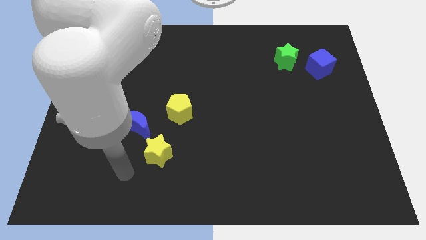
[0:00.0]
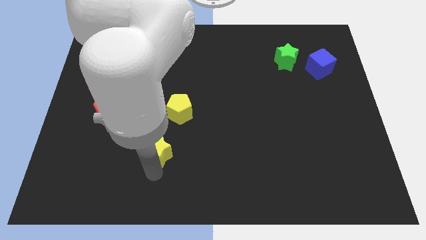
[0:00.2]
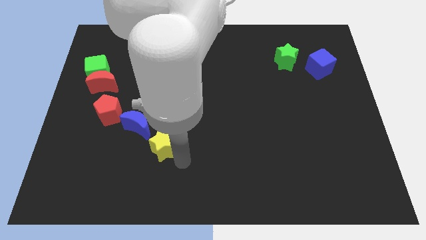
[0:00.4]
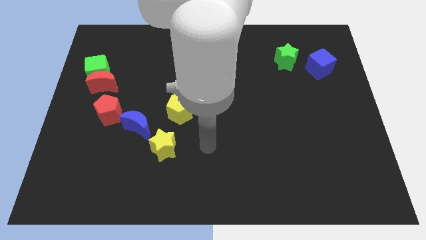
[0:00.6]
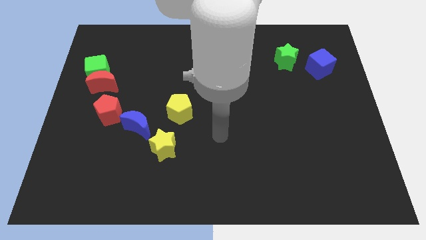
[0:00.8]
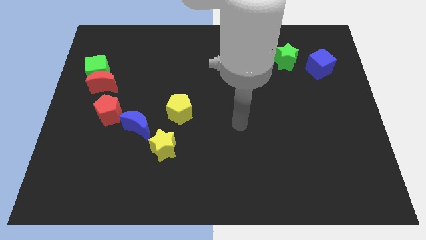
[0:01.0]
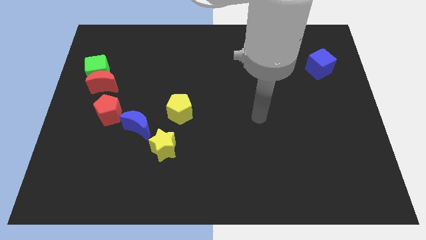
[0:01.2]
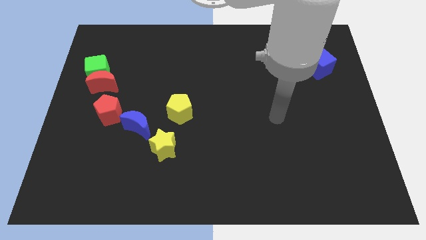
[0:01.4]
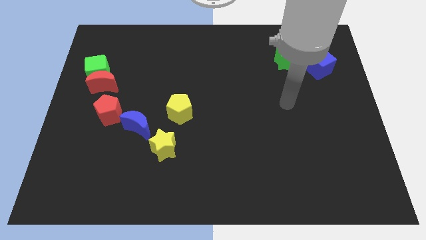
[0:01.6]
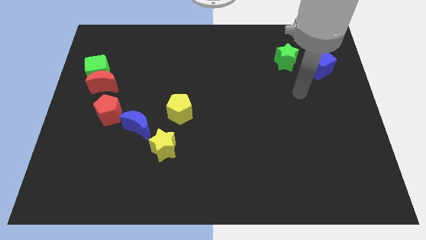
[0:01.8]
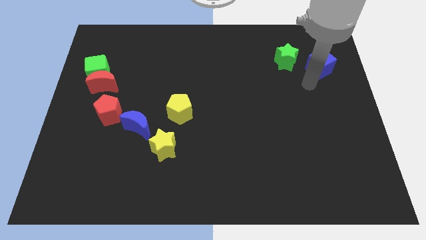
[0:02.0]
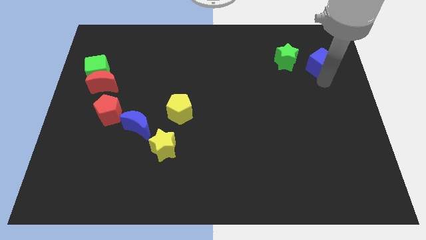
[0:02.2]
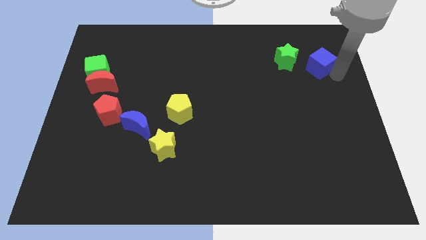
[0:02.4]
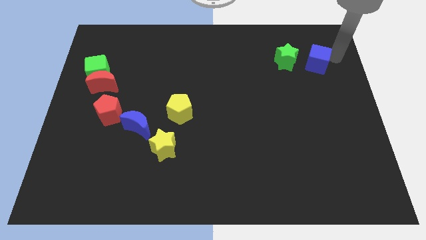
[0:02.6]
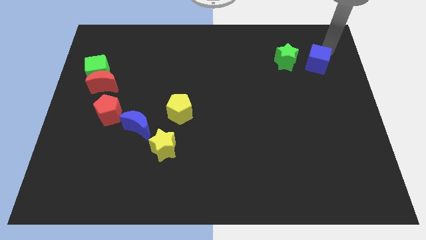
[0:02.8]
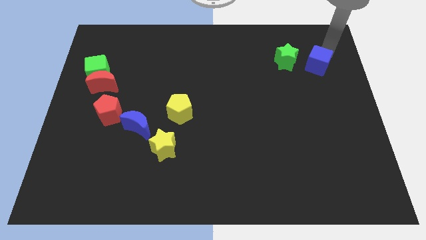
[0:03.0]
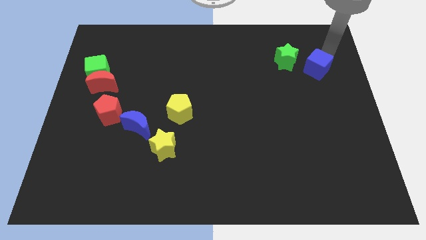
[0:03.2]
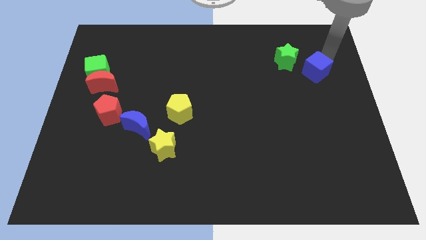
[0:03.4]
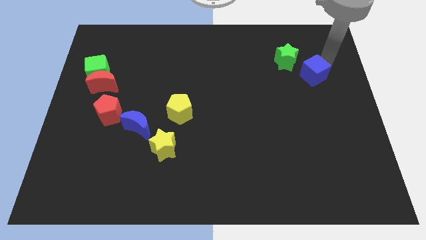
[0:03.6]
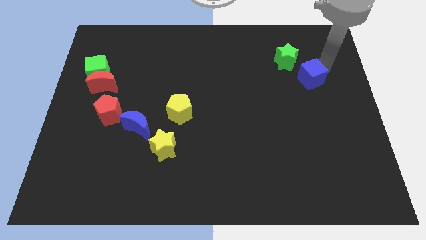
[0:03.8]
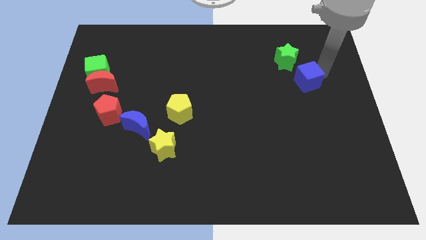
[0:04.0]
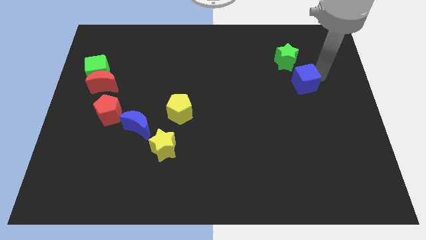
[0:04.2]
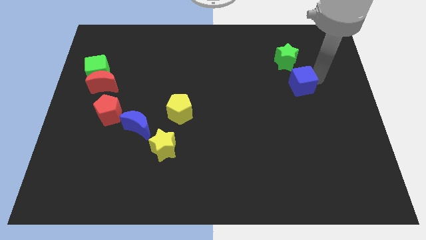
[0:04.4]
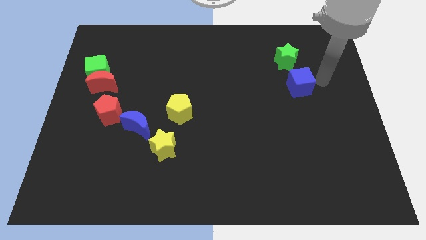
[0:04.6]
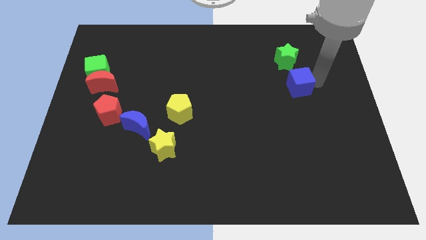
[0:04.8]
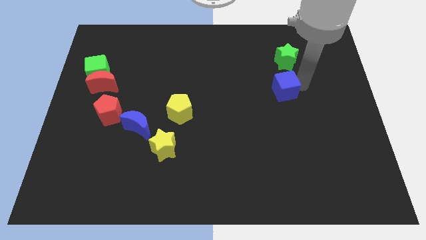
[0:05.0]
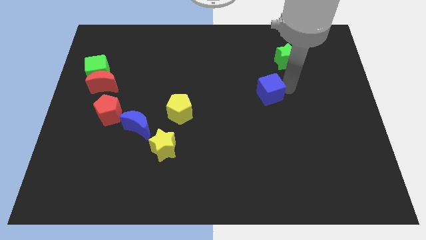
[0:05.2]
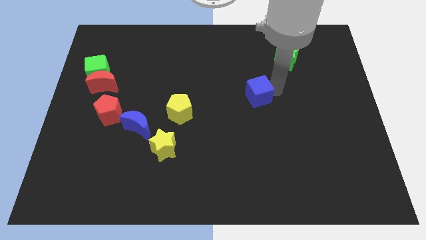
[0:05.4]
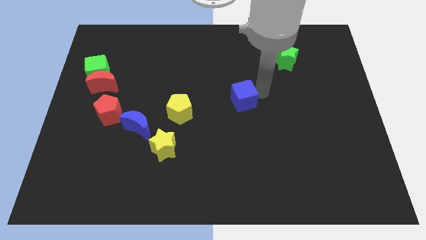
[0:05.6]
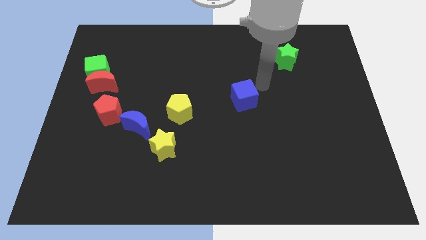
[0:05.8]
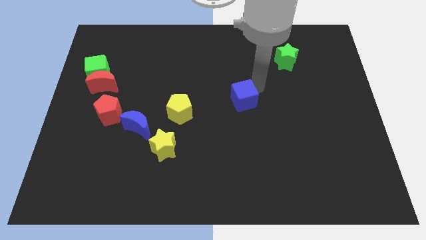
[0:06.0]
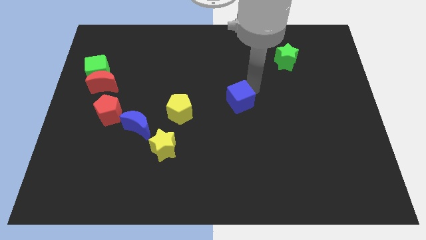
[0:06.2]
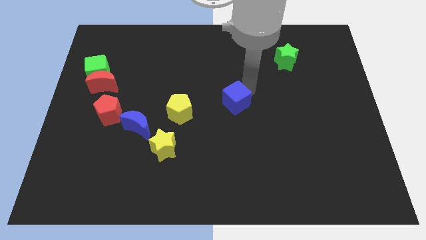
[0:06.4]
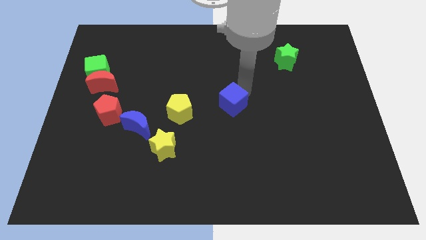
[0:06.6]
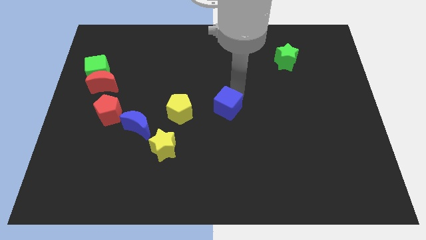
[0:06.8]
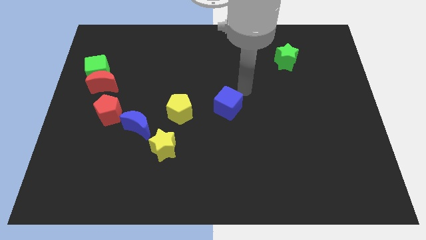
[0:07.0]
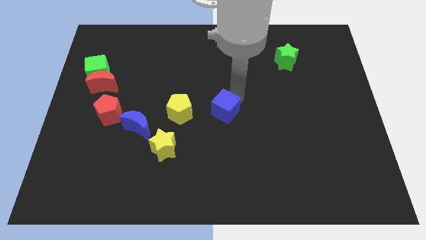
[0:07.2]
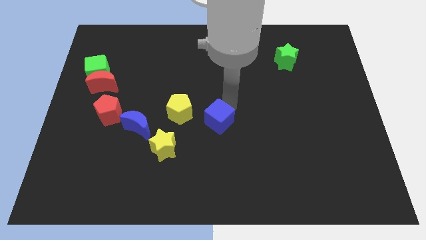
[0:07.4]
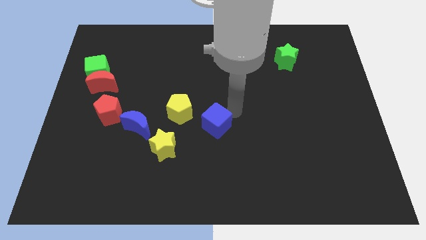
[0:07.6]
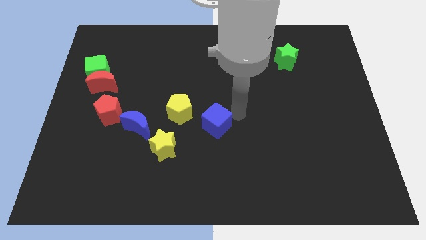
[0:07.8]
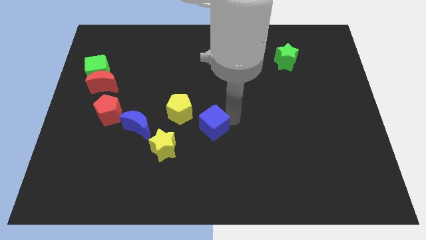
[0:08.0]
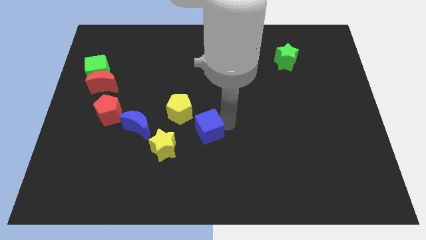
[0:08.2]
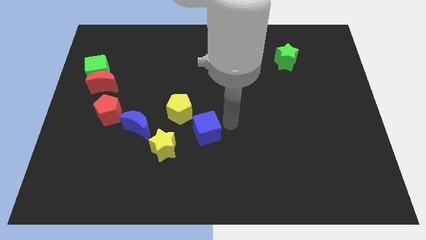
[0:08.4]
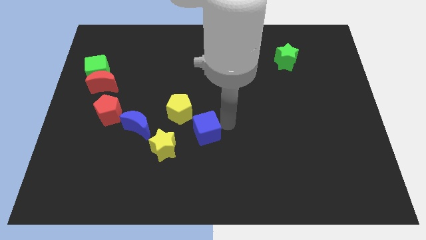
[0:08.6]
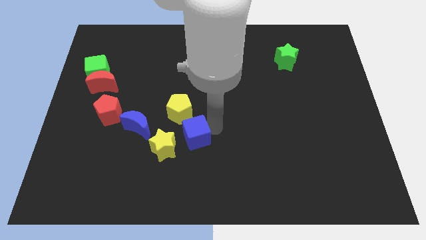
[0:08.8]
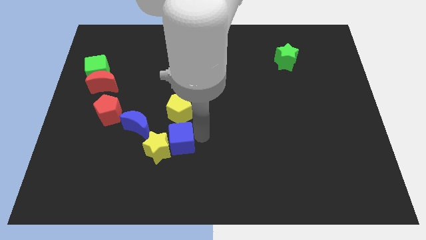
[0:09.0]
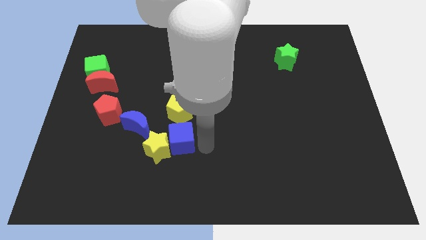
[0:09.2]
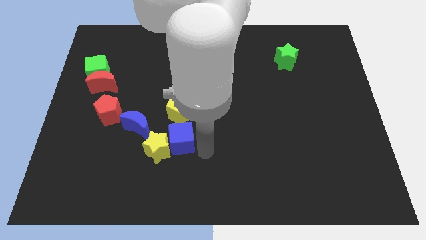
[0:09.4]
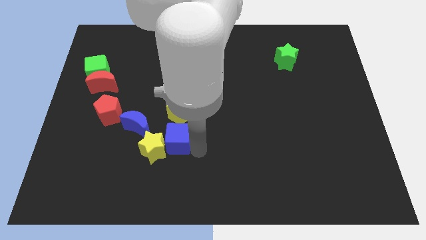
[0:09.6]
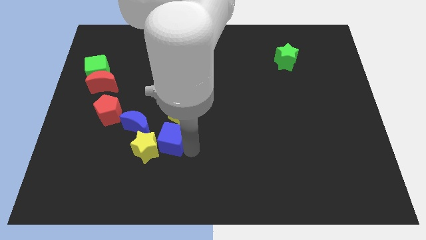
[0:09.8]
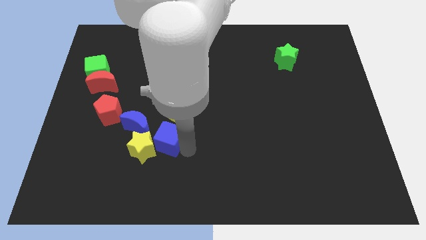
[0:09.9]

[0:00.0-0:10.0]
move the blue cube diagonally down and to the left of the yellow pentagon

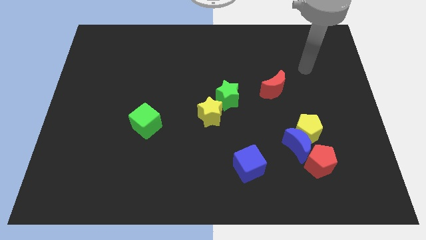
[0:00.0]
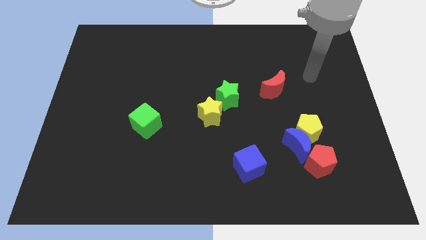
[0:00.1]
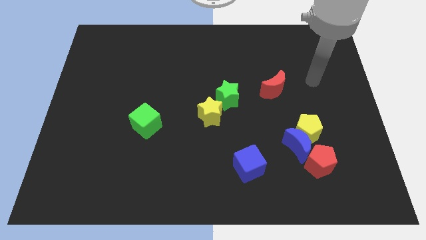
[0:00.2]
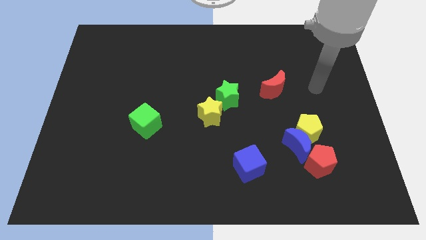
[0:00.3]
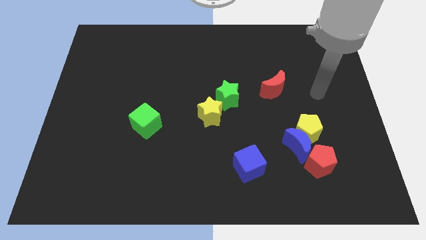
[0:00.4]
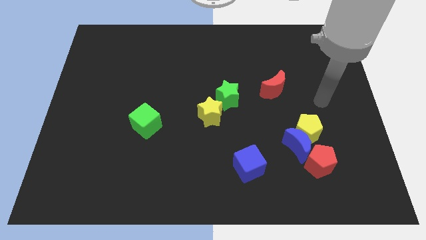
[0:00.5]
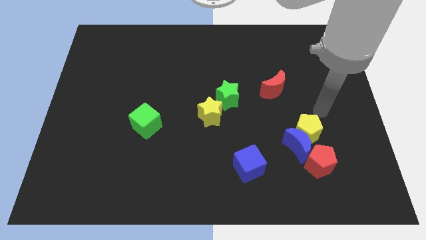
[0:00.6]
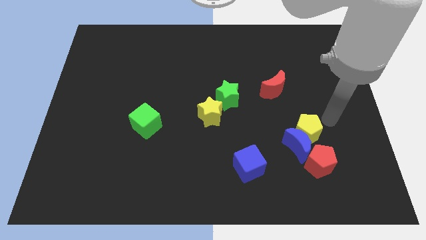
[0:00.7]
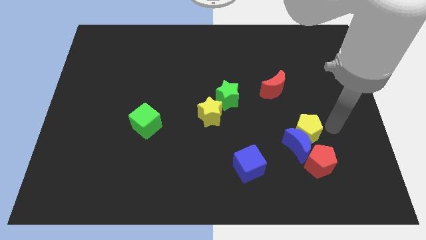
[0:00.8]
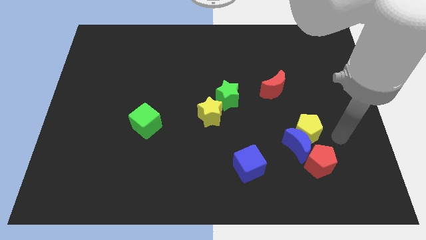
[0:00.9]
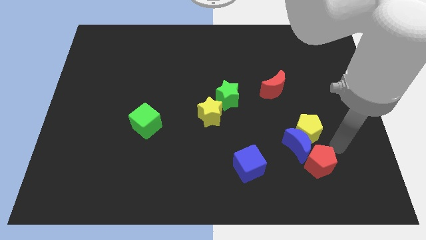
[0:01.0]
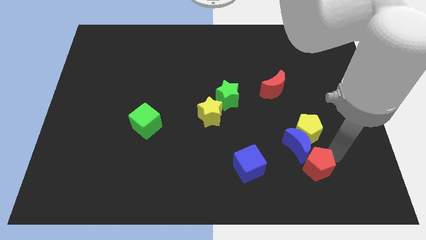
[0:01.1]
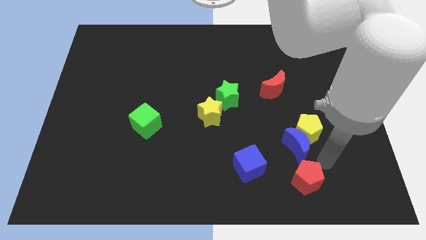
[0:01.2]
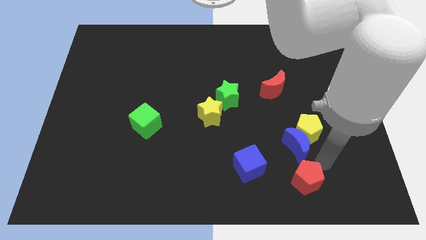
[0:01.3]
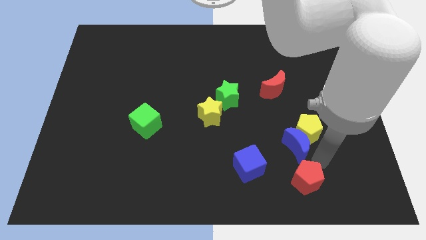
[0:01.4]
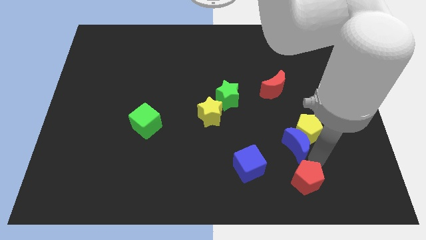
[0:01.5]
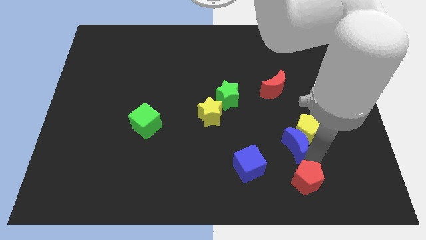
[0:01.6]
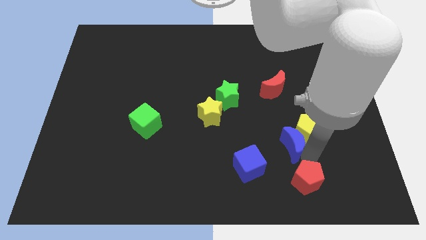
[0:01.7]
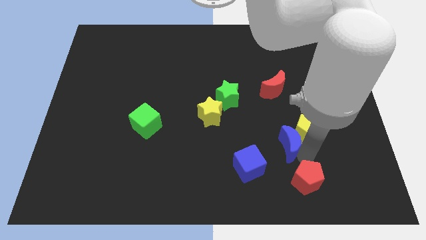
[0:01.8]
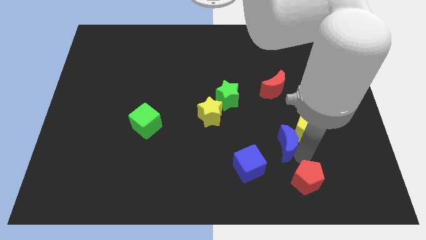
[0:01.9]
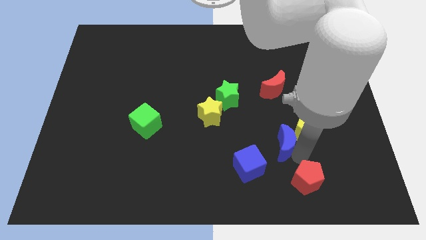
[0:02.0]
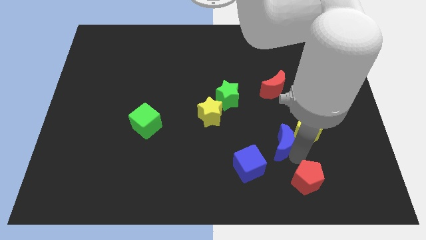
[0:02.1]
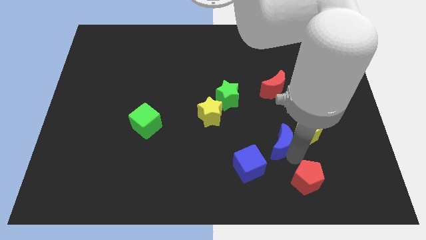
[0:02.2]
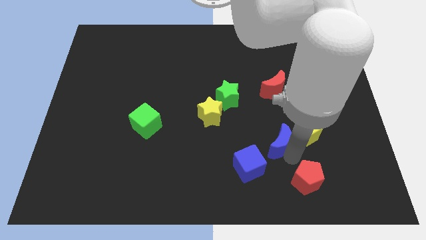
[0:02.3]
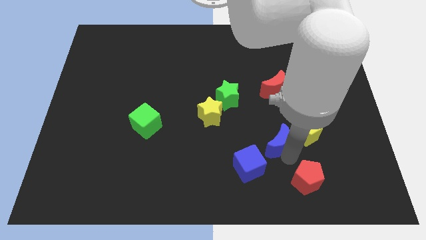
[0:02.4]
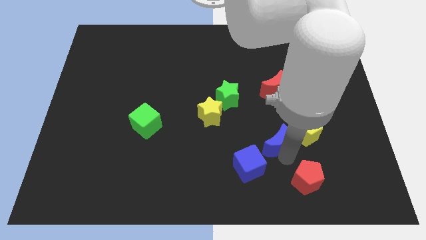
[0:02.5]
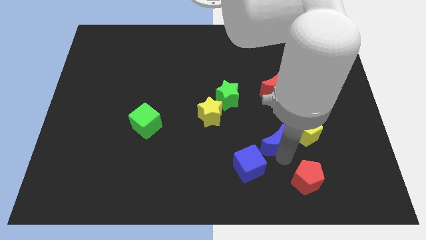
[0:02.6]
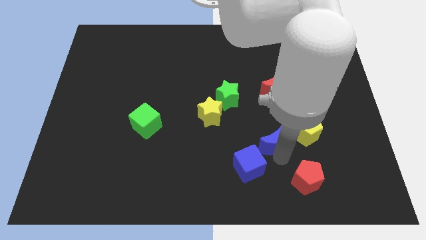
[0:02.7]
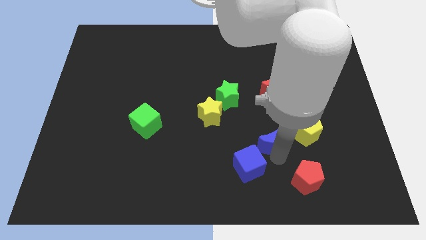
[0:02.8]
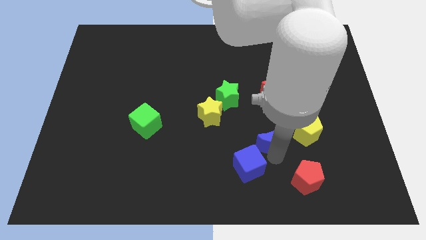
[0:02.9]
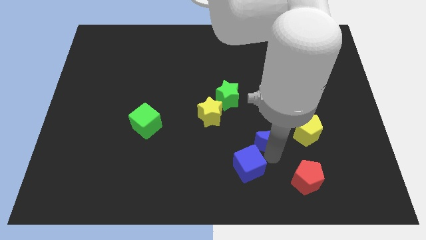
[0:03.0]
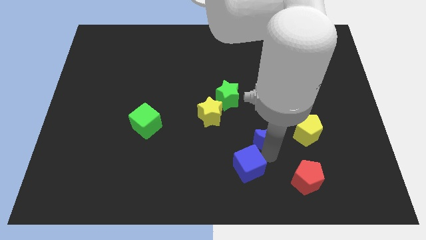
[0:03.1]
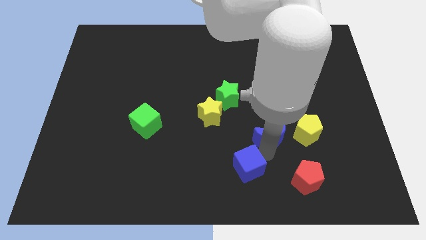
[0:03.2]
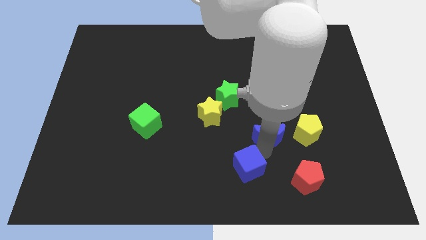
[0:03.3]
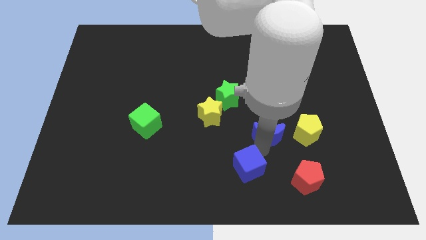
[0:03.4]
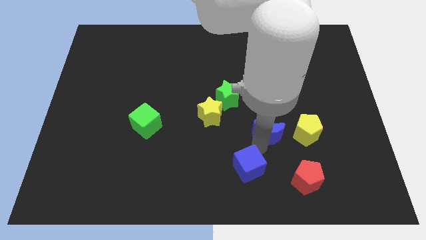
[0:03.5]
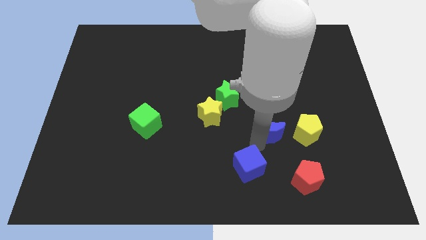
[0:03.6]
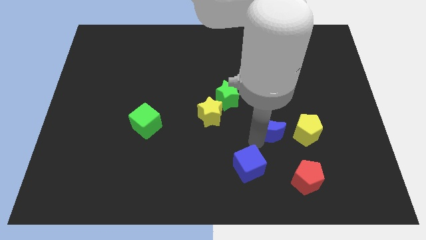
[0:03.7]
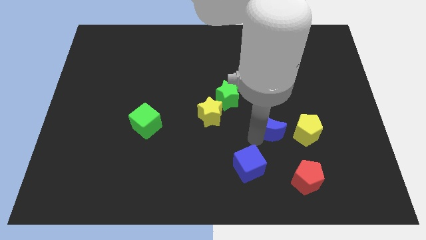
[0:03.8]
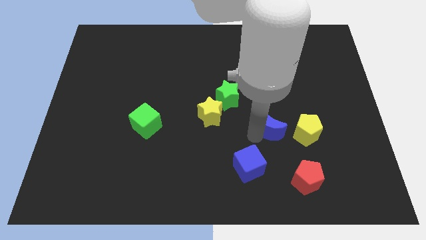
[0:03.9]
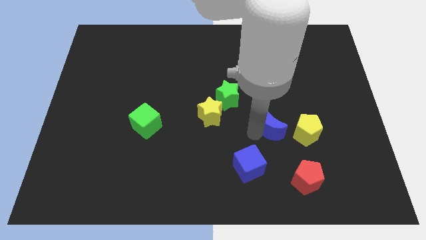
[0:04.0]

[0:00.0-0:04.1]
slide the blue moon to the top left of the yellow pentagon
